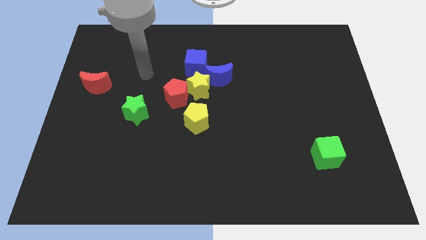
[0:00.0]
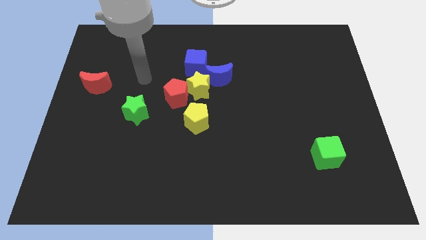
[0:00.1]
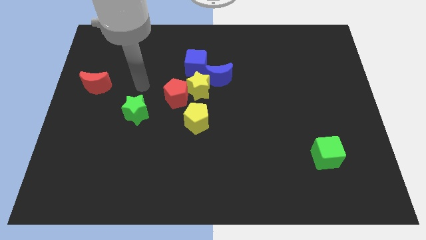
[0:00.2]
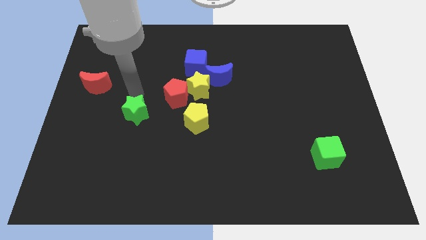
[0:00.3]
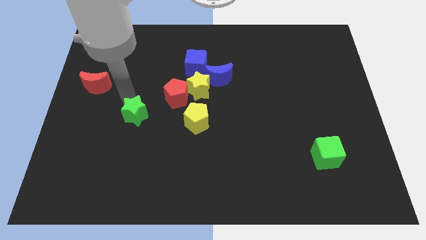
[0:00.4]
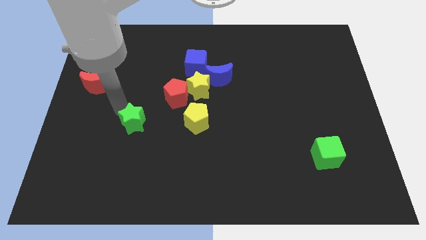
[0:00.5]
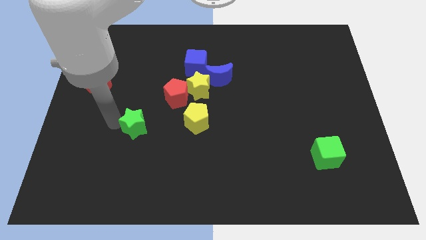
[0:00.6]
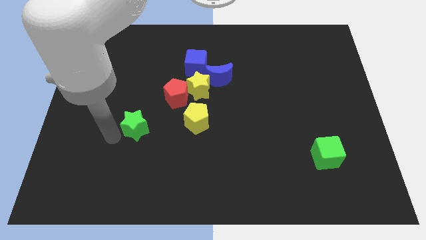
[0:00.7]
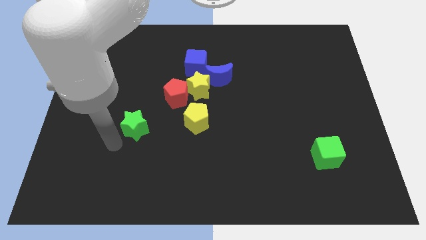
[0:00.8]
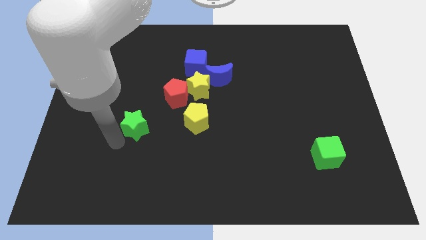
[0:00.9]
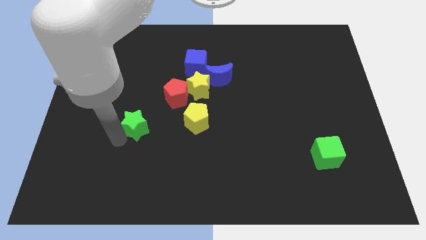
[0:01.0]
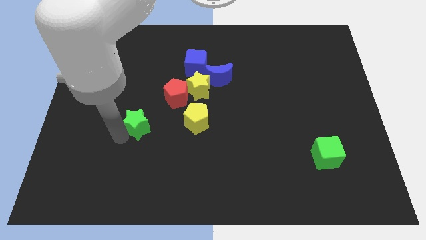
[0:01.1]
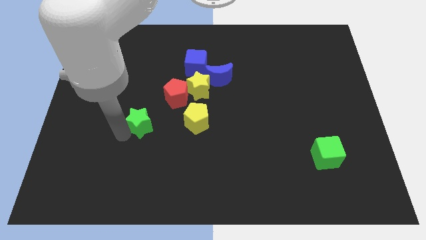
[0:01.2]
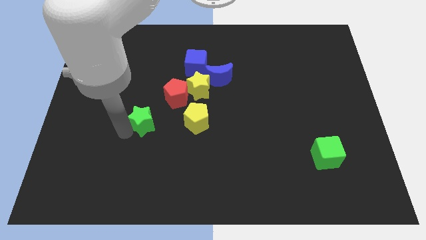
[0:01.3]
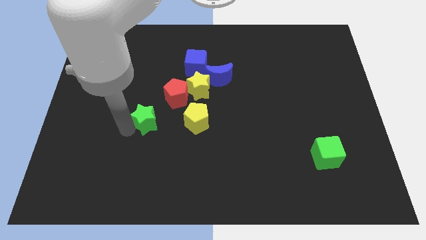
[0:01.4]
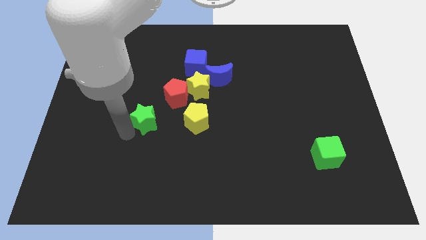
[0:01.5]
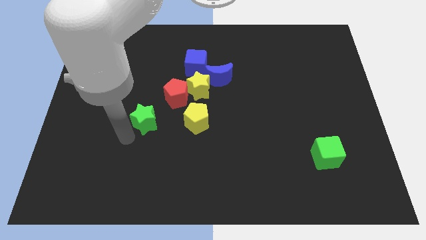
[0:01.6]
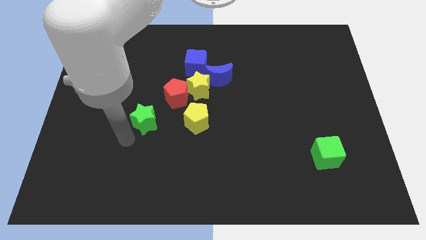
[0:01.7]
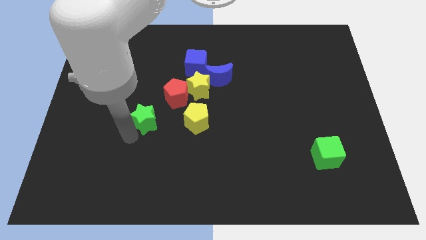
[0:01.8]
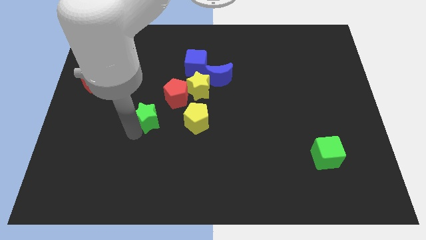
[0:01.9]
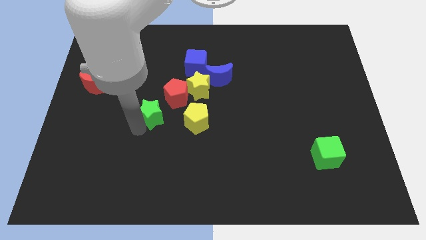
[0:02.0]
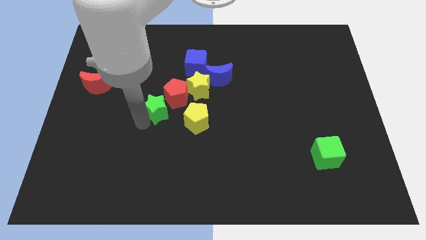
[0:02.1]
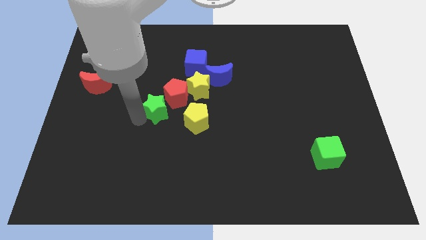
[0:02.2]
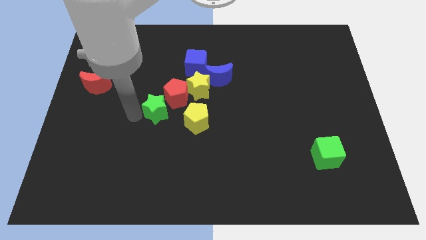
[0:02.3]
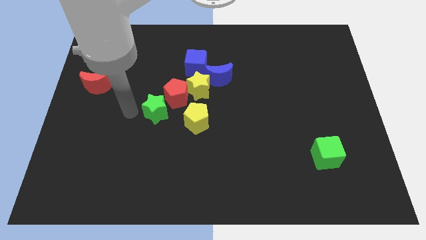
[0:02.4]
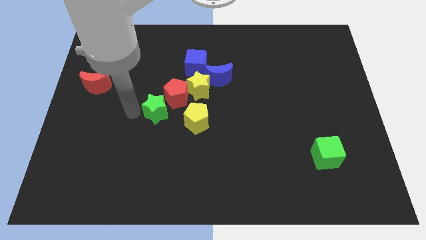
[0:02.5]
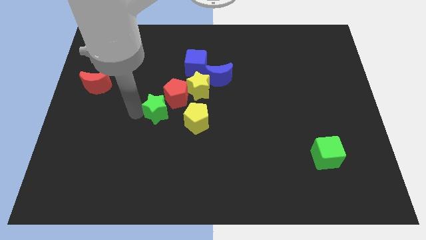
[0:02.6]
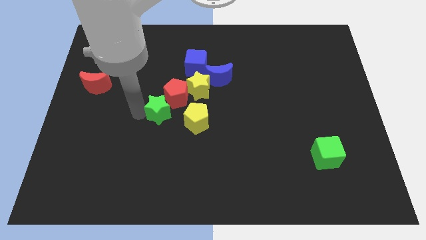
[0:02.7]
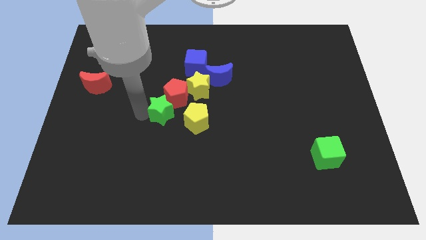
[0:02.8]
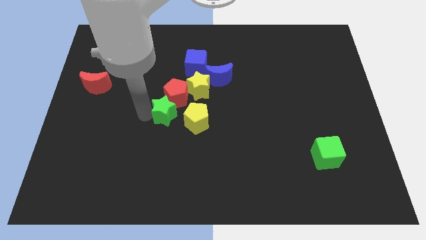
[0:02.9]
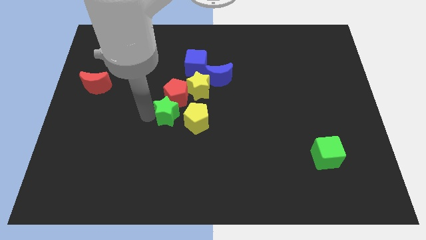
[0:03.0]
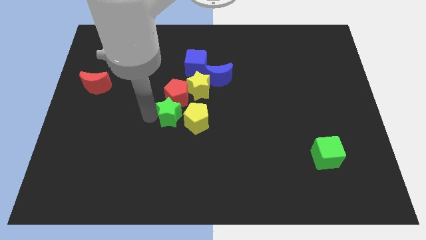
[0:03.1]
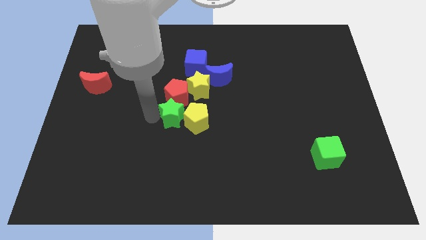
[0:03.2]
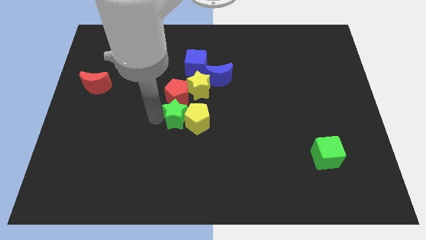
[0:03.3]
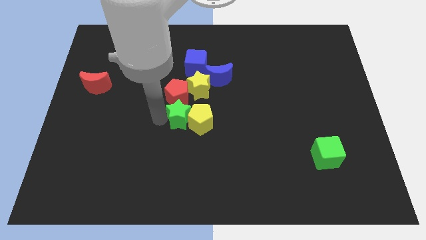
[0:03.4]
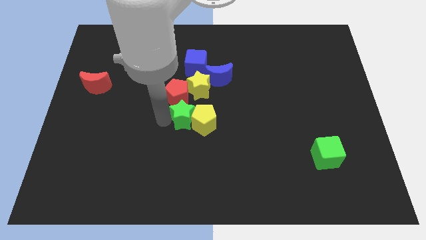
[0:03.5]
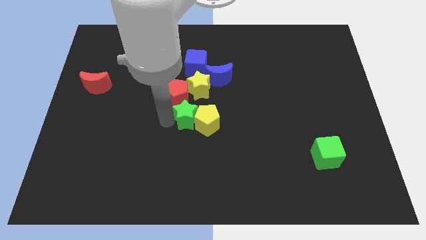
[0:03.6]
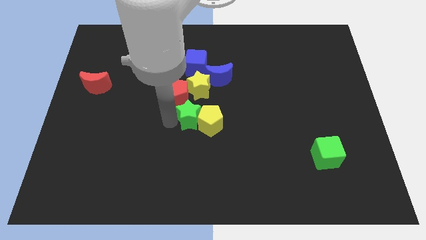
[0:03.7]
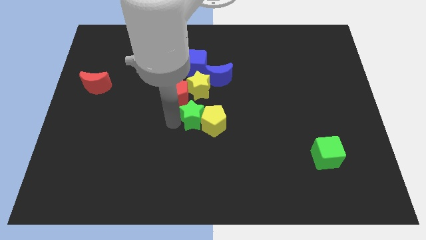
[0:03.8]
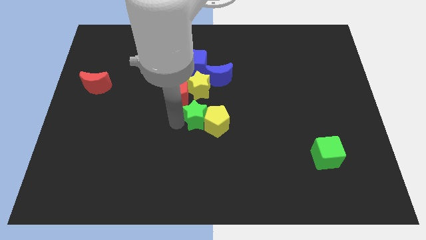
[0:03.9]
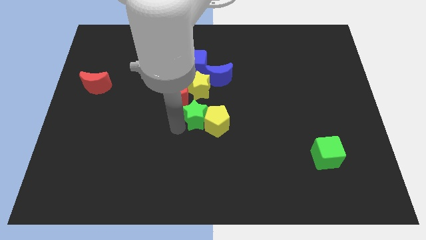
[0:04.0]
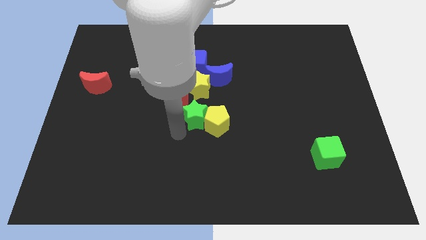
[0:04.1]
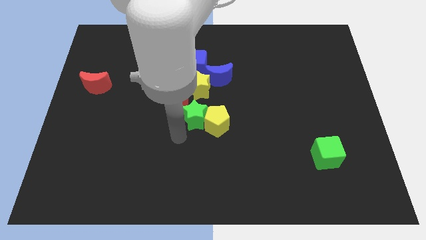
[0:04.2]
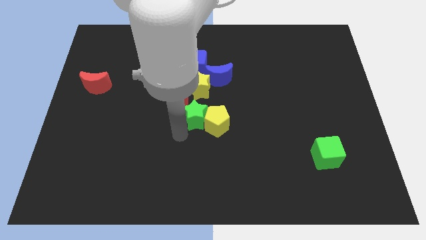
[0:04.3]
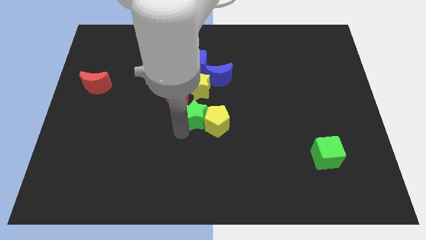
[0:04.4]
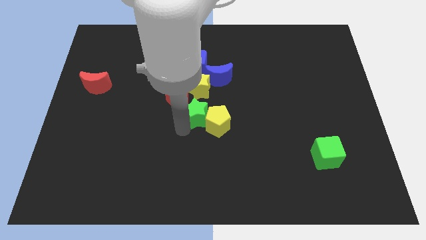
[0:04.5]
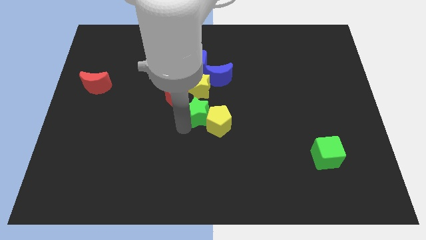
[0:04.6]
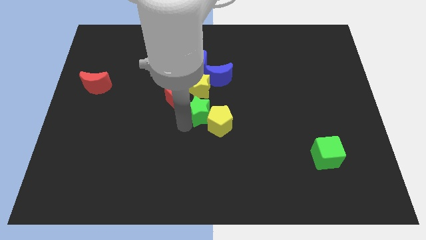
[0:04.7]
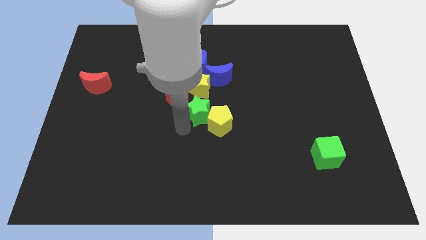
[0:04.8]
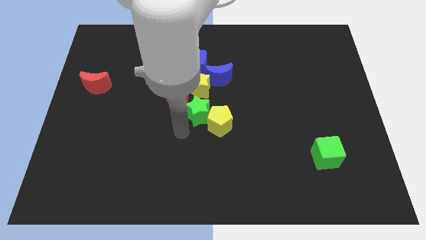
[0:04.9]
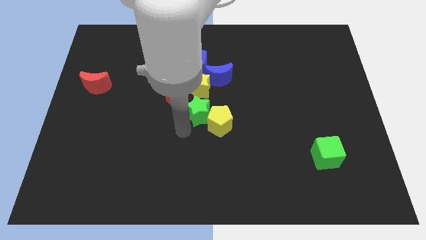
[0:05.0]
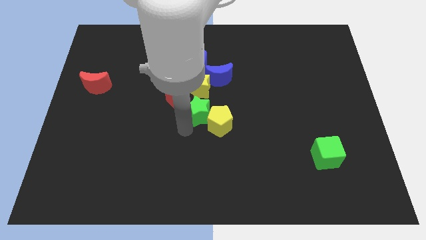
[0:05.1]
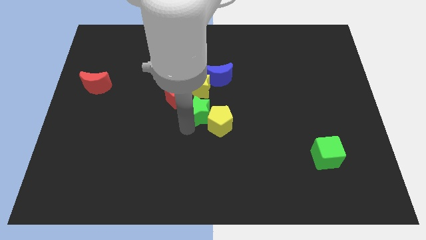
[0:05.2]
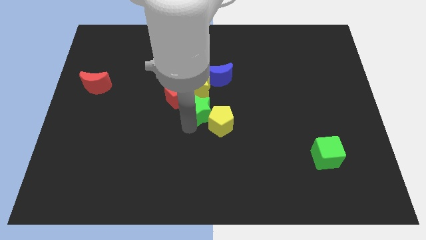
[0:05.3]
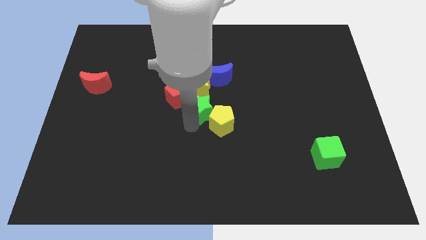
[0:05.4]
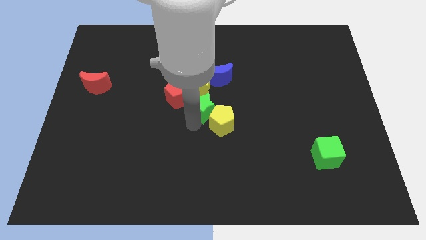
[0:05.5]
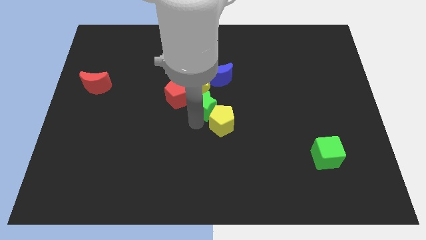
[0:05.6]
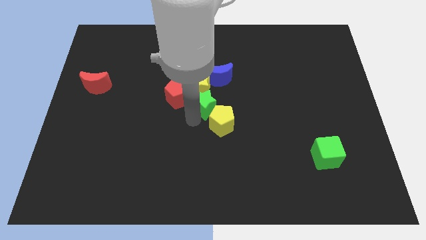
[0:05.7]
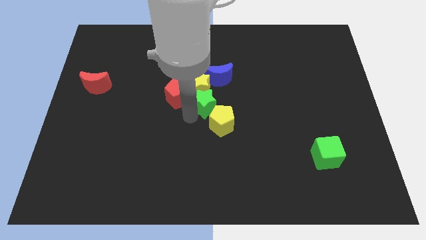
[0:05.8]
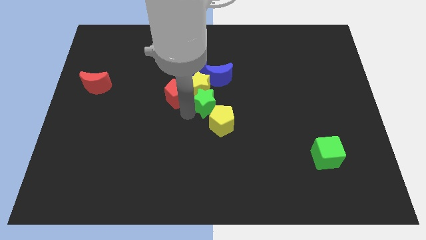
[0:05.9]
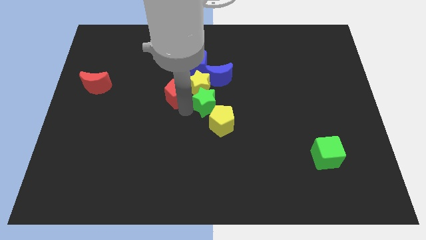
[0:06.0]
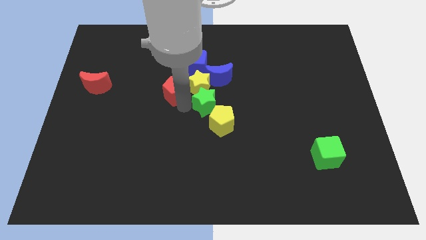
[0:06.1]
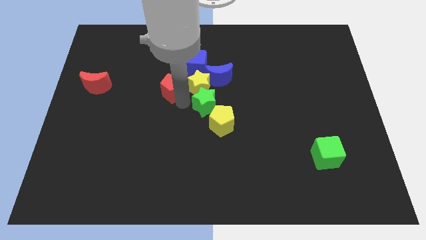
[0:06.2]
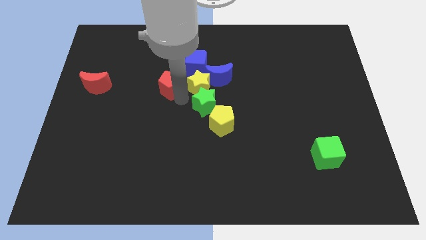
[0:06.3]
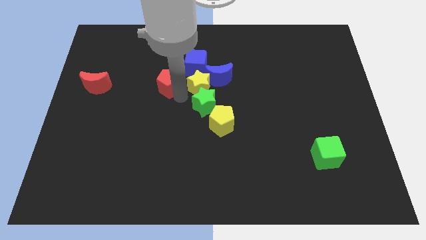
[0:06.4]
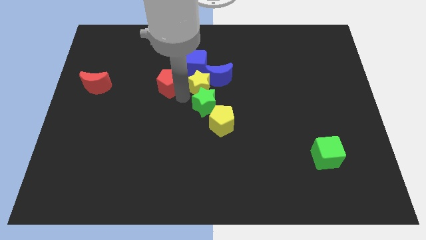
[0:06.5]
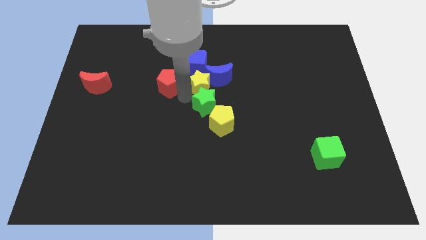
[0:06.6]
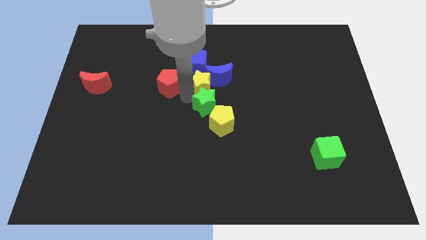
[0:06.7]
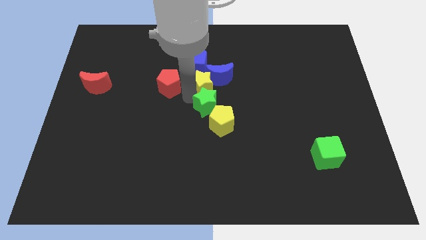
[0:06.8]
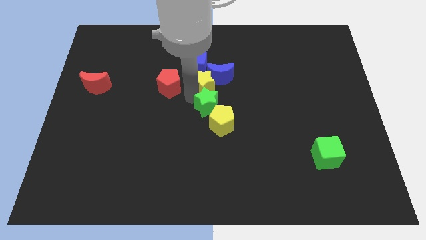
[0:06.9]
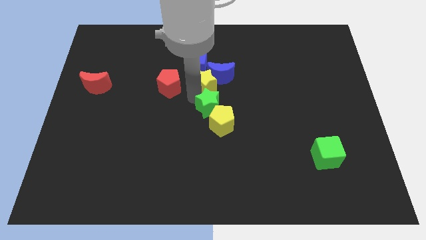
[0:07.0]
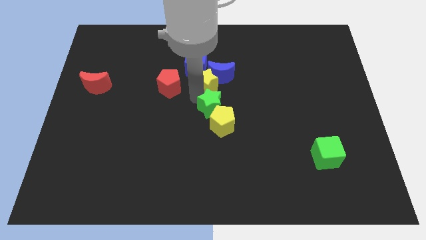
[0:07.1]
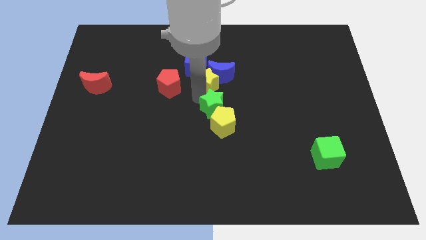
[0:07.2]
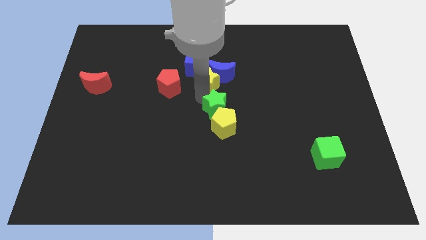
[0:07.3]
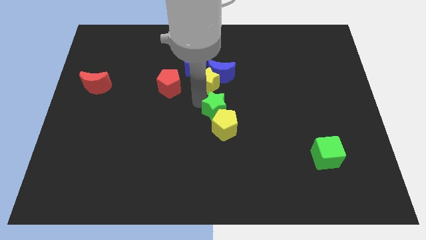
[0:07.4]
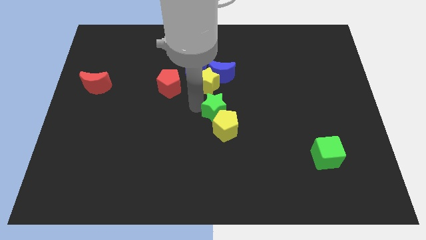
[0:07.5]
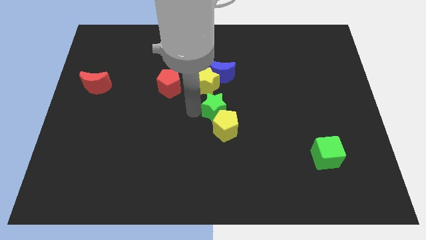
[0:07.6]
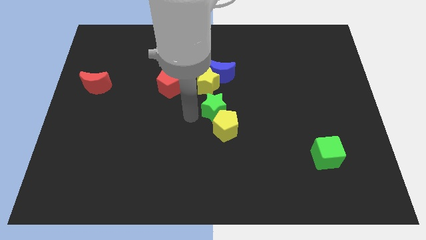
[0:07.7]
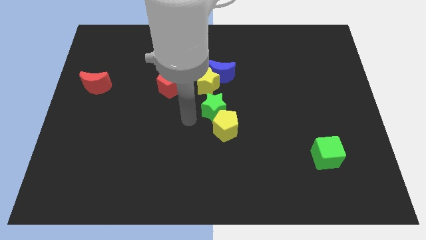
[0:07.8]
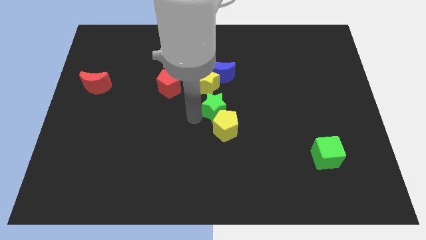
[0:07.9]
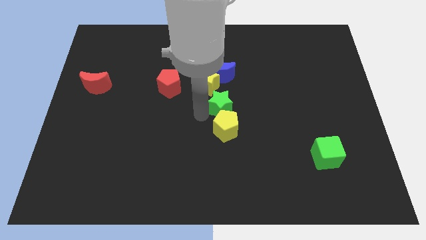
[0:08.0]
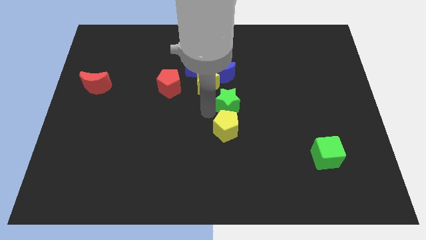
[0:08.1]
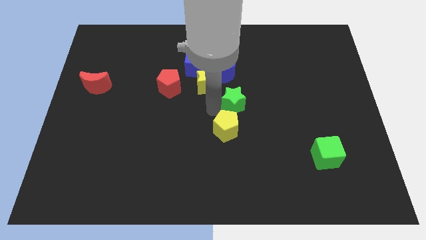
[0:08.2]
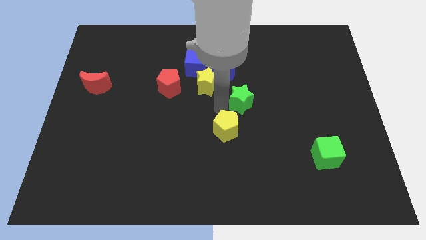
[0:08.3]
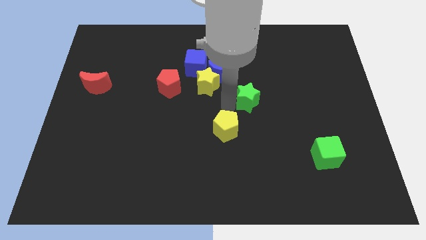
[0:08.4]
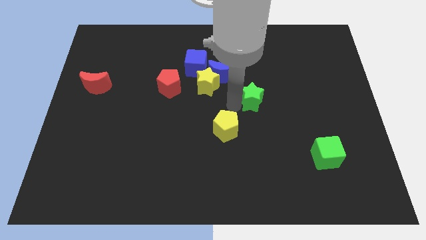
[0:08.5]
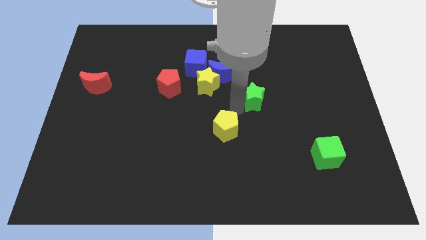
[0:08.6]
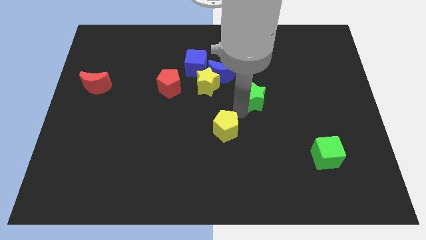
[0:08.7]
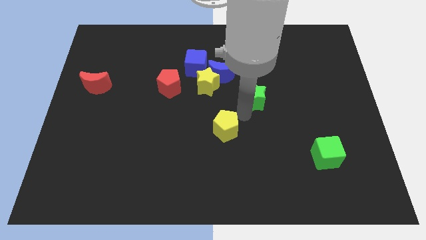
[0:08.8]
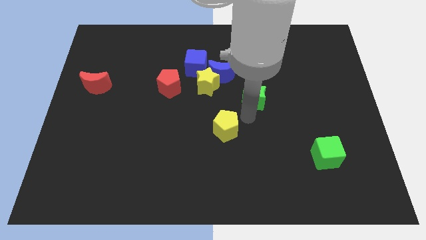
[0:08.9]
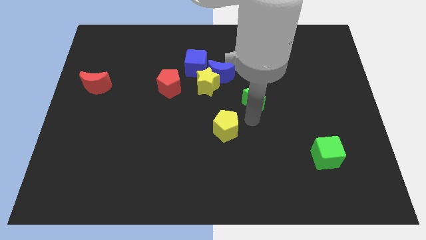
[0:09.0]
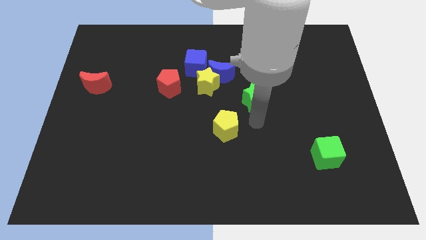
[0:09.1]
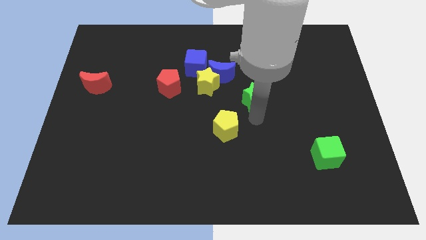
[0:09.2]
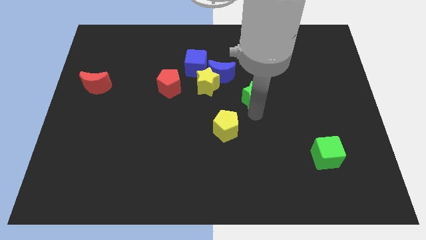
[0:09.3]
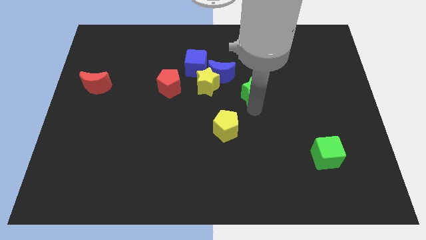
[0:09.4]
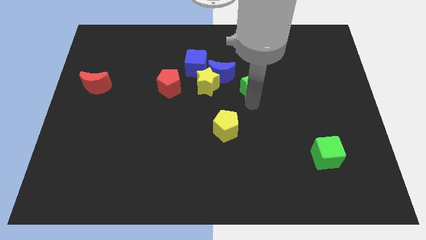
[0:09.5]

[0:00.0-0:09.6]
push the green star right of the blue moon
